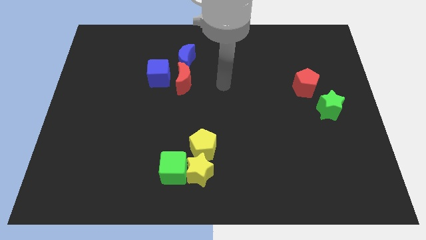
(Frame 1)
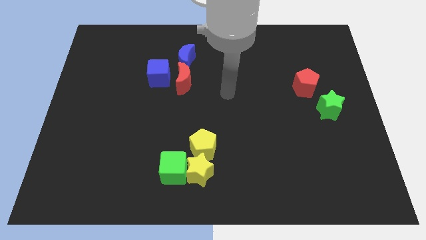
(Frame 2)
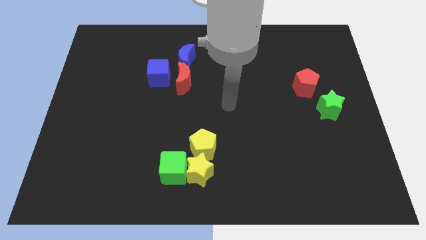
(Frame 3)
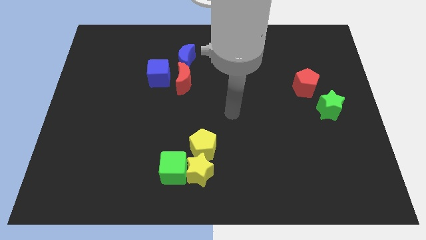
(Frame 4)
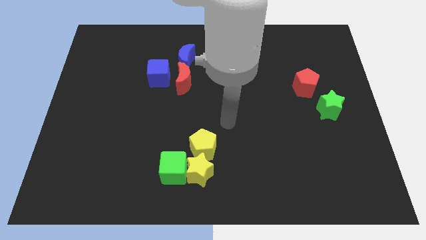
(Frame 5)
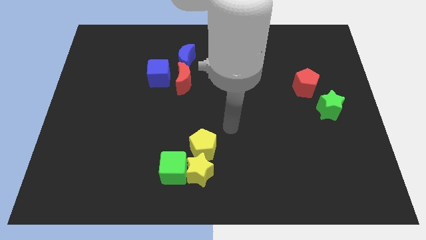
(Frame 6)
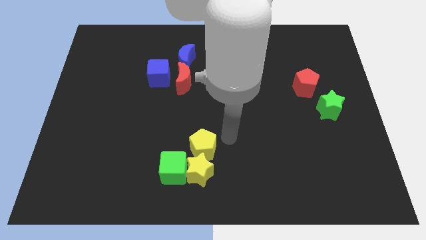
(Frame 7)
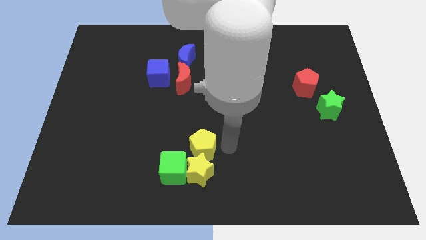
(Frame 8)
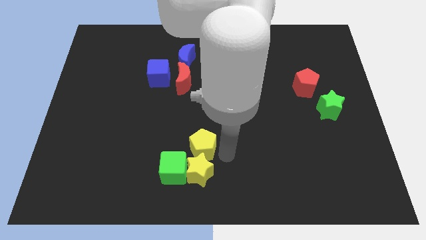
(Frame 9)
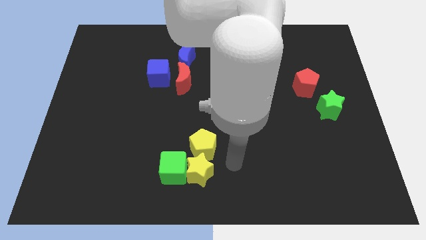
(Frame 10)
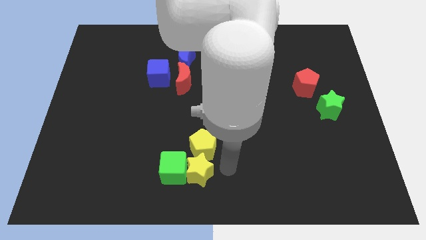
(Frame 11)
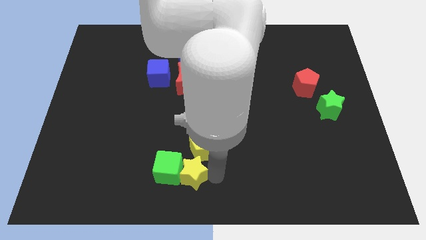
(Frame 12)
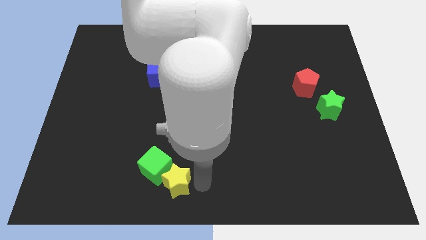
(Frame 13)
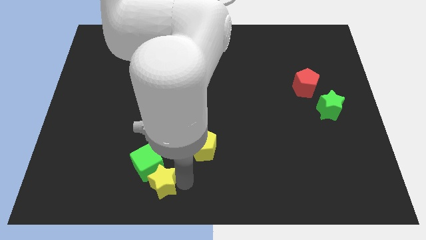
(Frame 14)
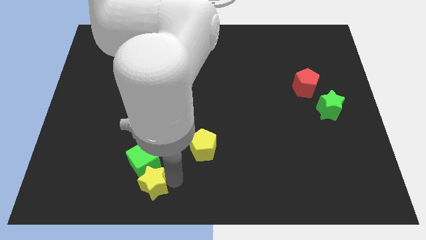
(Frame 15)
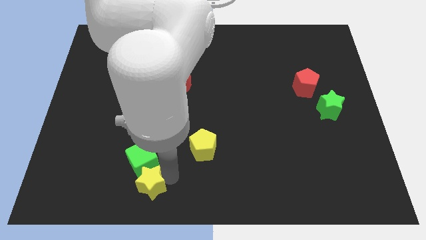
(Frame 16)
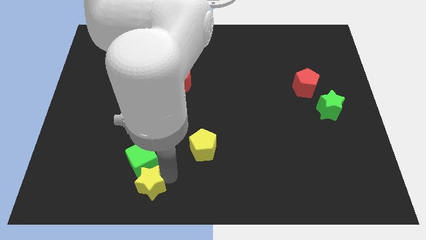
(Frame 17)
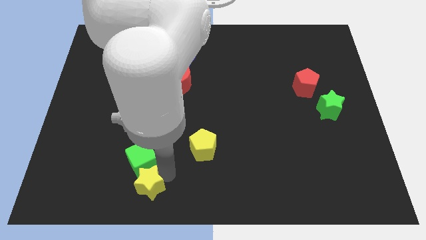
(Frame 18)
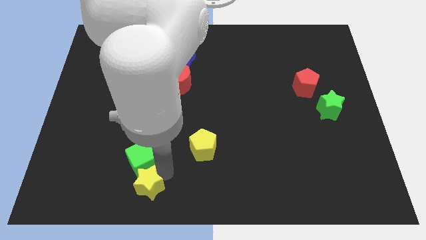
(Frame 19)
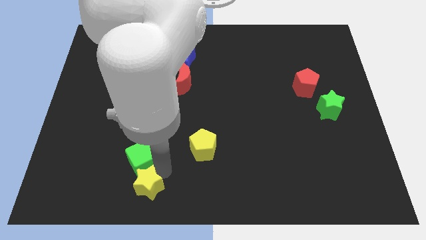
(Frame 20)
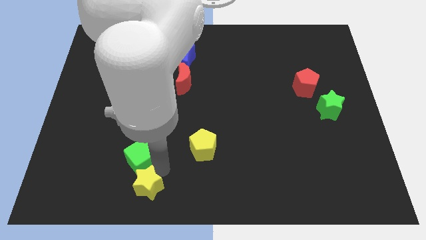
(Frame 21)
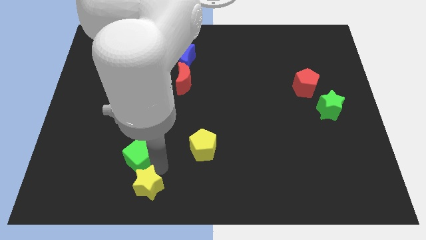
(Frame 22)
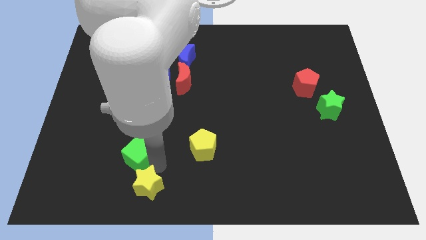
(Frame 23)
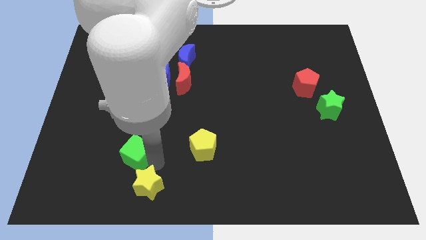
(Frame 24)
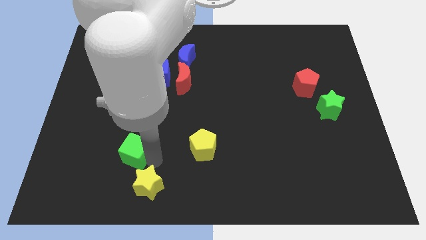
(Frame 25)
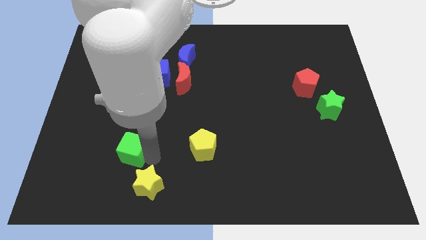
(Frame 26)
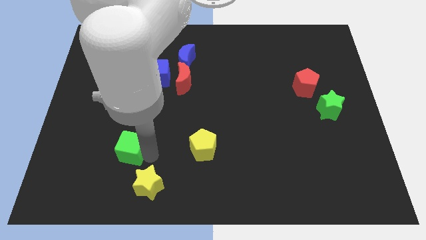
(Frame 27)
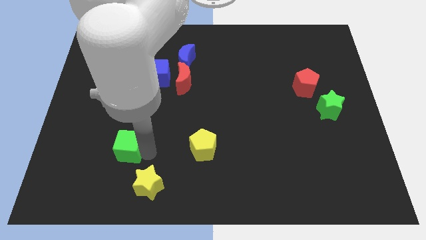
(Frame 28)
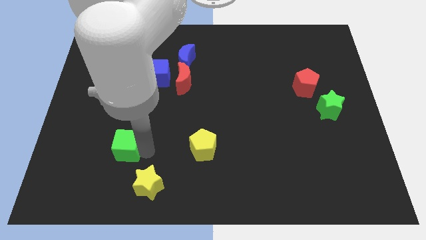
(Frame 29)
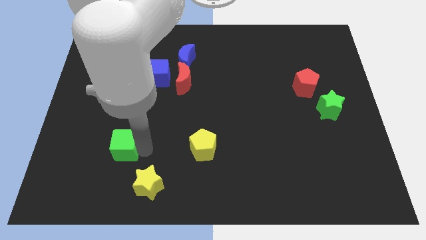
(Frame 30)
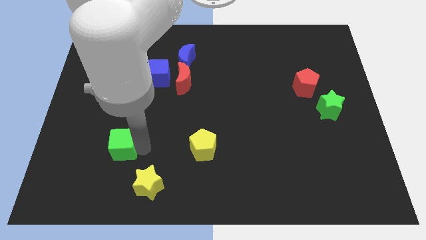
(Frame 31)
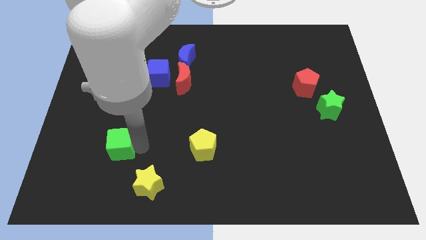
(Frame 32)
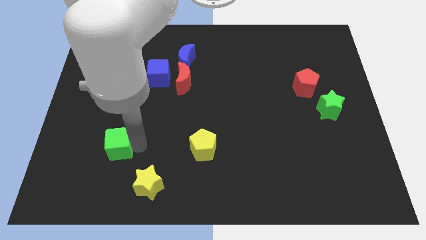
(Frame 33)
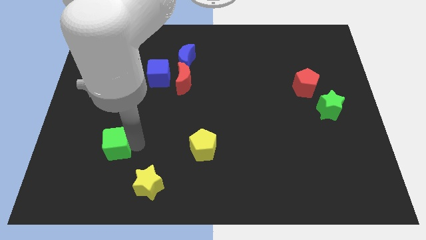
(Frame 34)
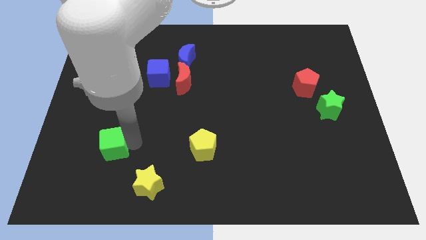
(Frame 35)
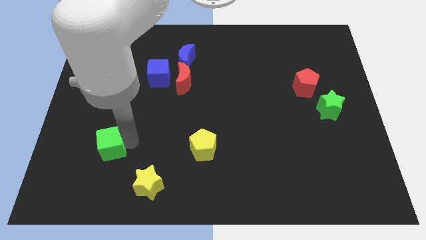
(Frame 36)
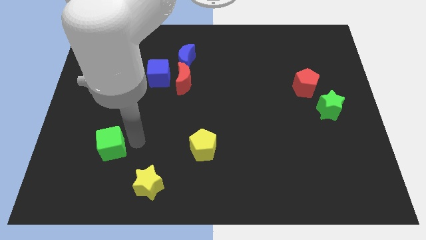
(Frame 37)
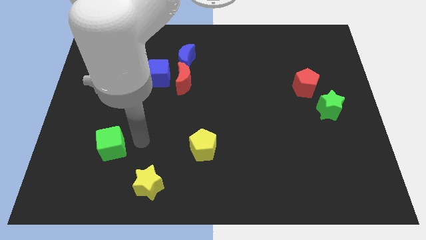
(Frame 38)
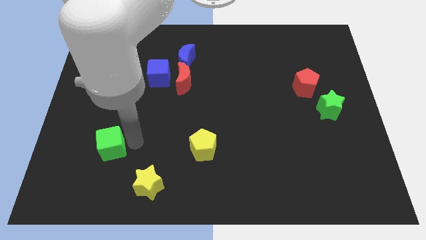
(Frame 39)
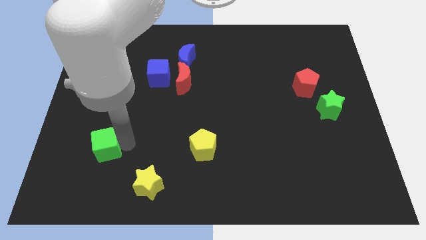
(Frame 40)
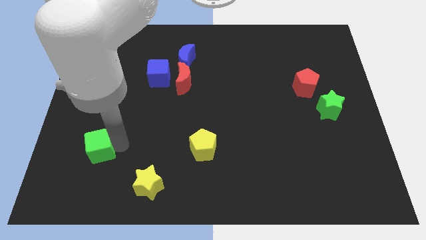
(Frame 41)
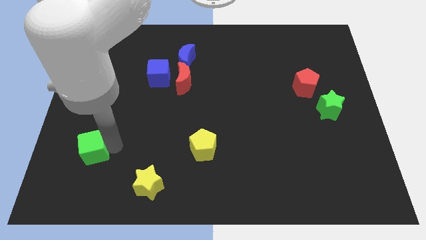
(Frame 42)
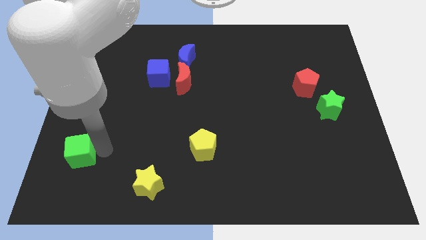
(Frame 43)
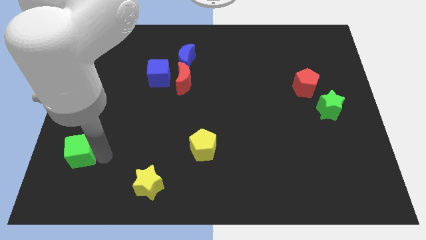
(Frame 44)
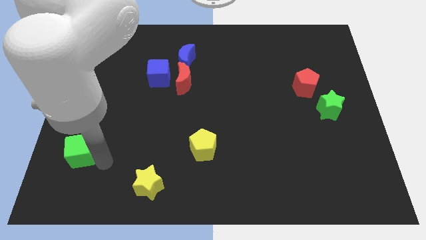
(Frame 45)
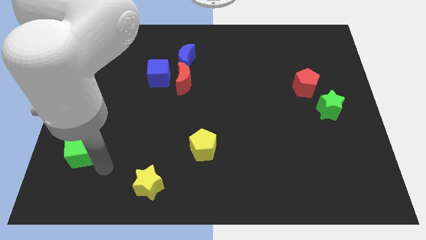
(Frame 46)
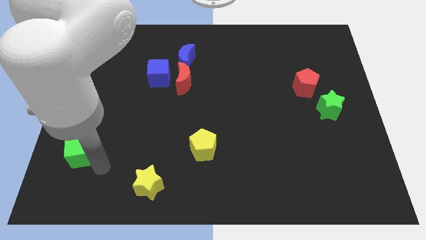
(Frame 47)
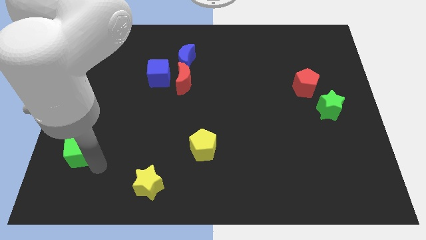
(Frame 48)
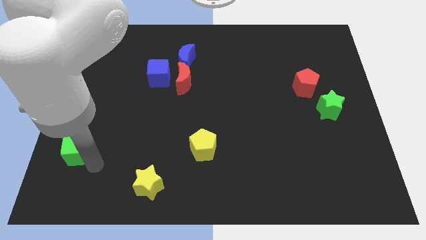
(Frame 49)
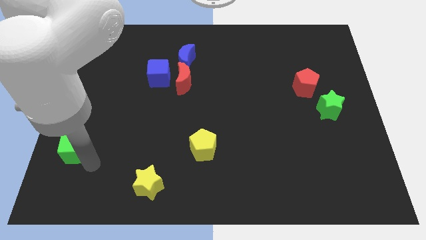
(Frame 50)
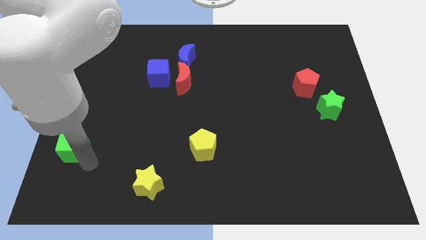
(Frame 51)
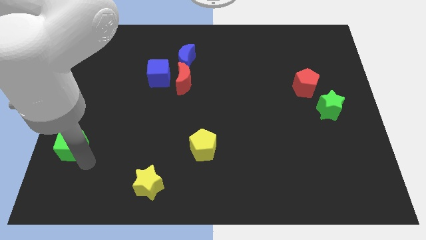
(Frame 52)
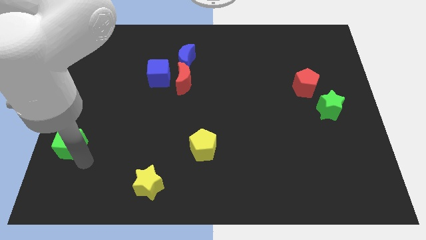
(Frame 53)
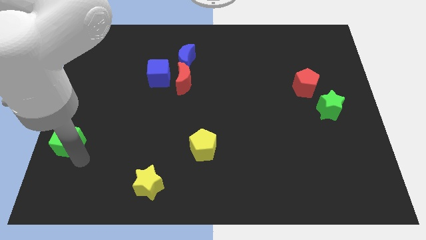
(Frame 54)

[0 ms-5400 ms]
push the green cube to the center left
